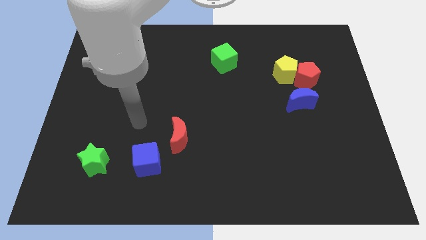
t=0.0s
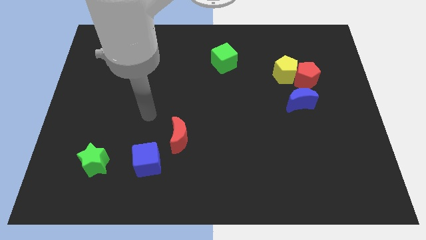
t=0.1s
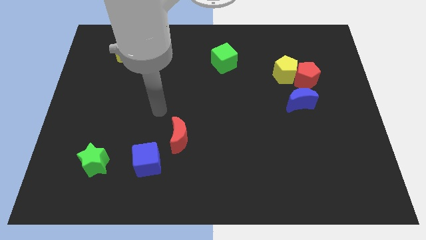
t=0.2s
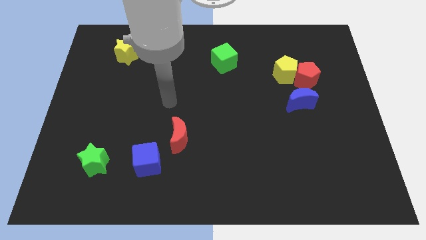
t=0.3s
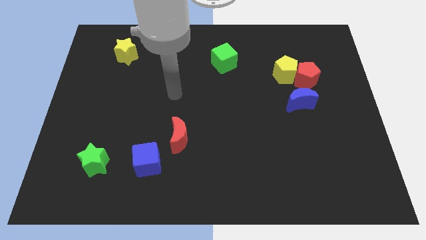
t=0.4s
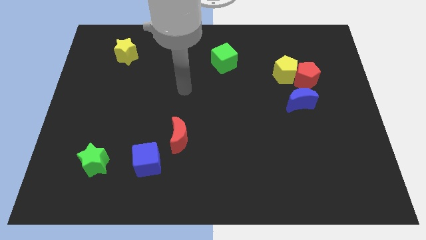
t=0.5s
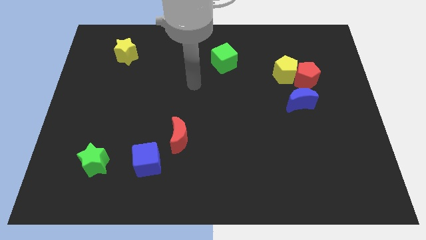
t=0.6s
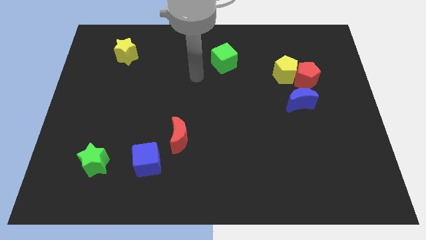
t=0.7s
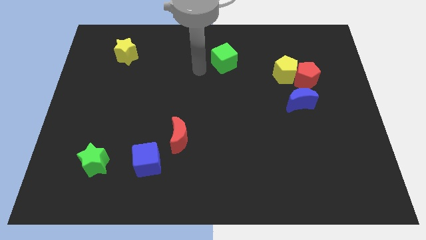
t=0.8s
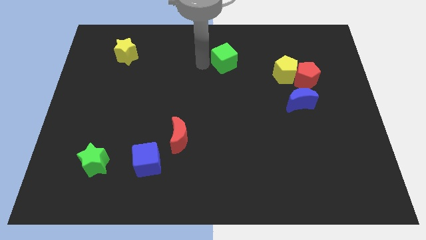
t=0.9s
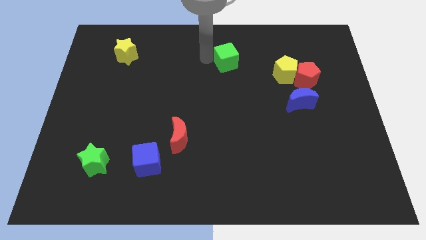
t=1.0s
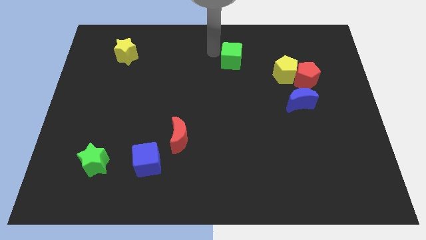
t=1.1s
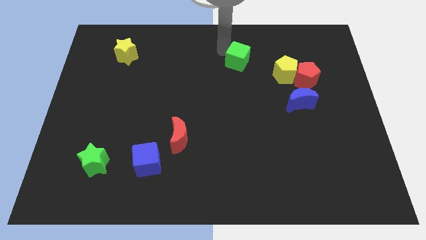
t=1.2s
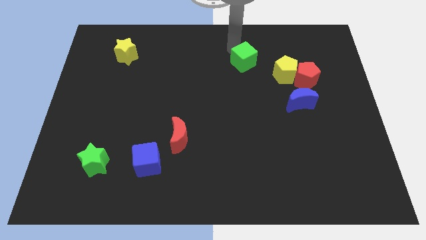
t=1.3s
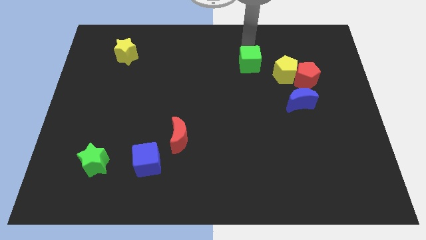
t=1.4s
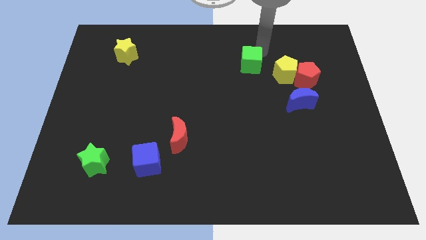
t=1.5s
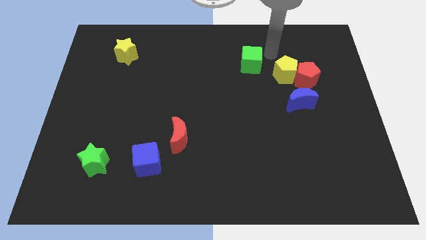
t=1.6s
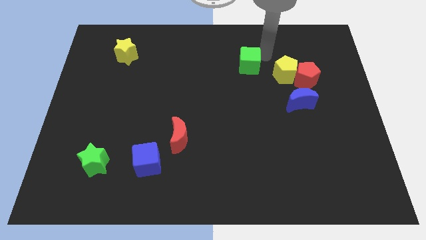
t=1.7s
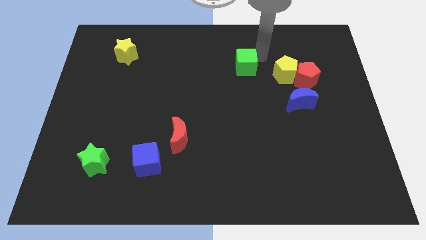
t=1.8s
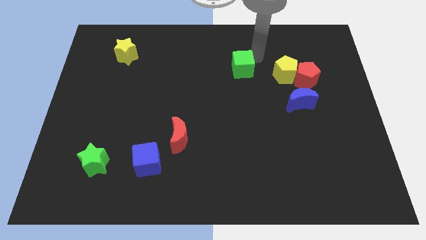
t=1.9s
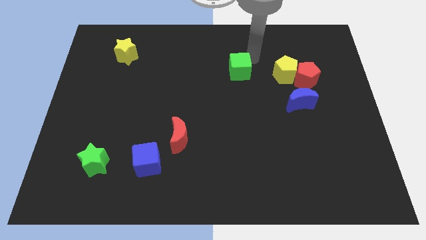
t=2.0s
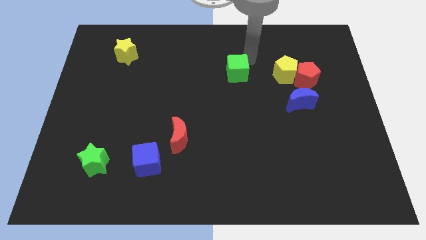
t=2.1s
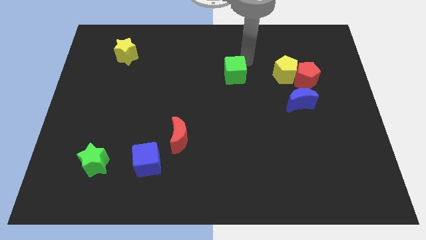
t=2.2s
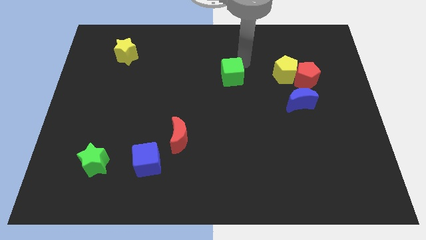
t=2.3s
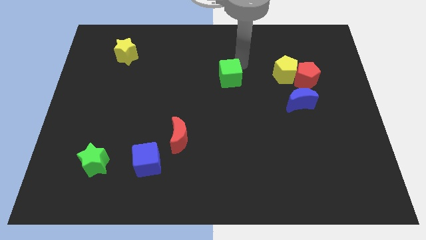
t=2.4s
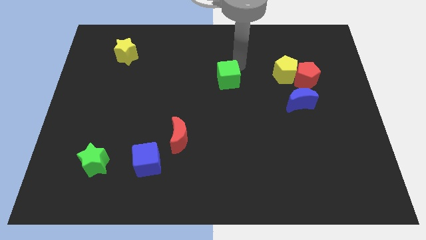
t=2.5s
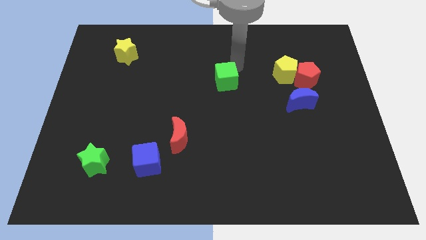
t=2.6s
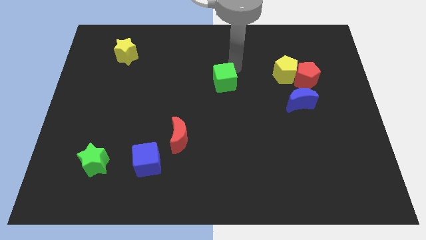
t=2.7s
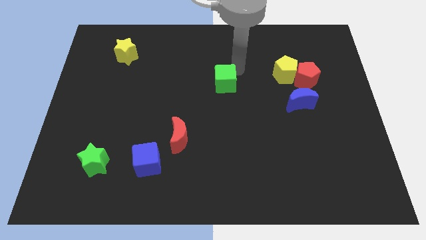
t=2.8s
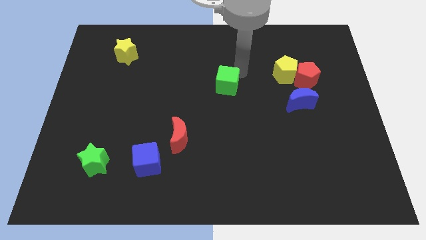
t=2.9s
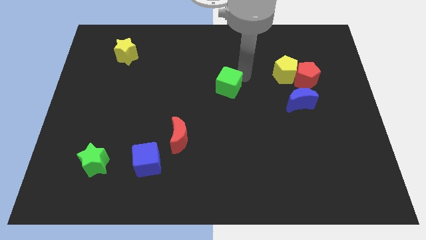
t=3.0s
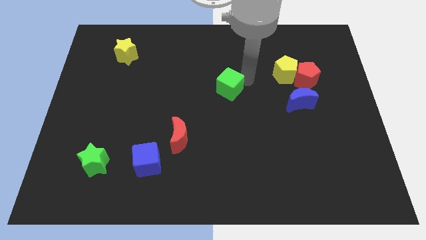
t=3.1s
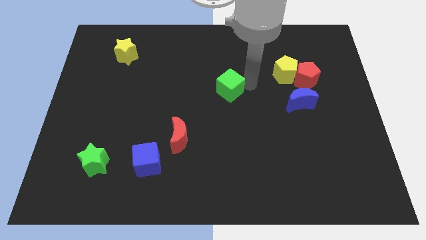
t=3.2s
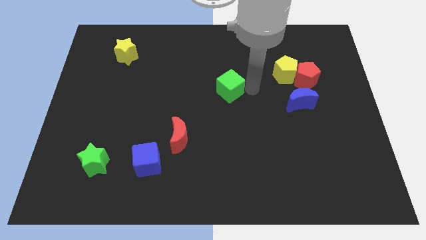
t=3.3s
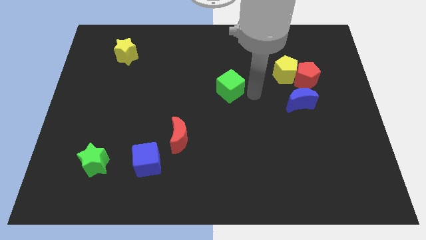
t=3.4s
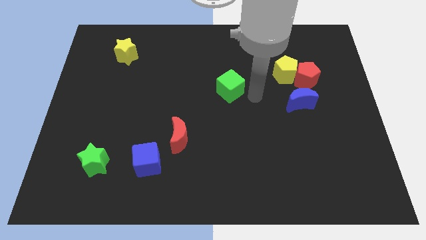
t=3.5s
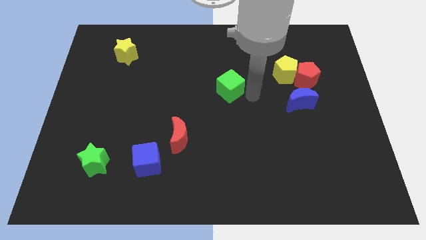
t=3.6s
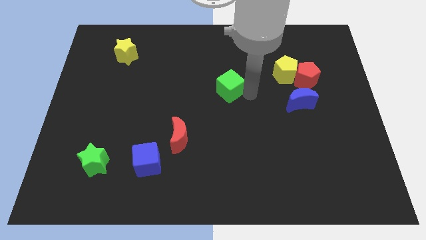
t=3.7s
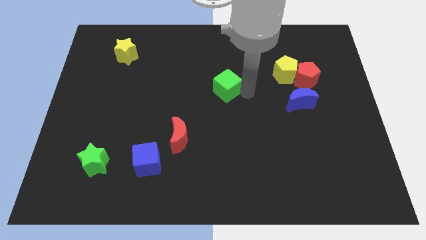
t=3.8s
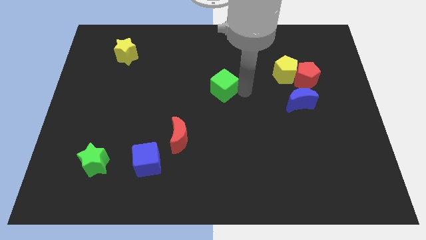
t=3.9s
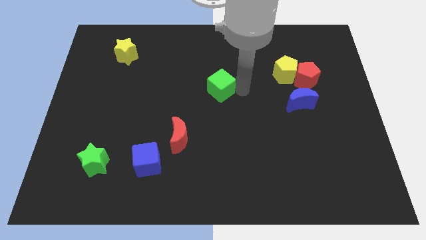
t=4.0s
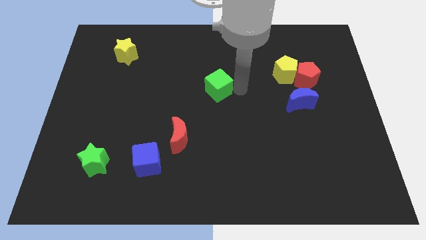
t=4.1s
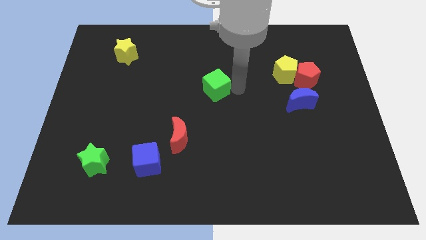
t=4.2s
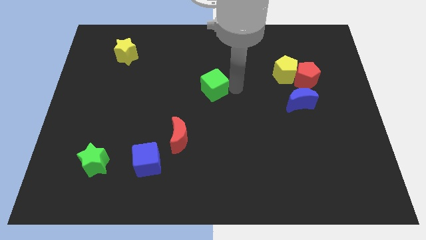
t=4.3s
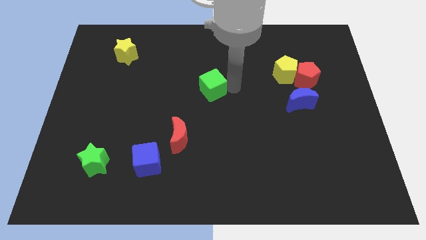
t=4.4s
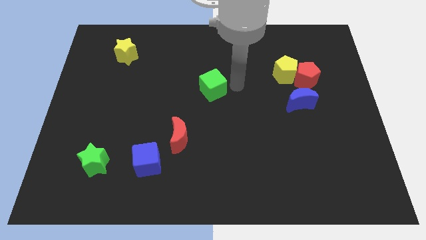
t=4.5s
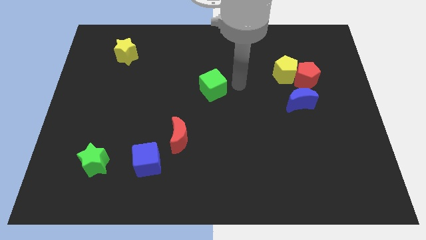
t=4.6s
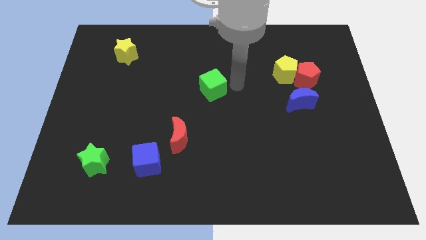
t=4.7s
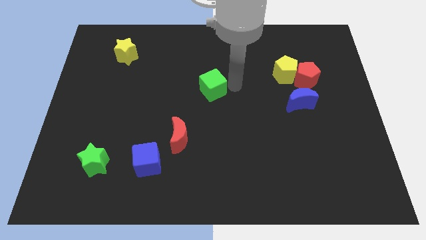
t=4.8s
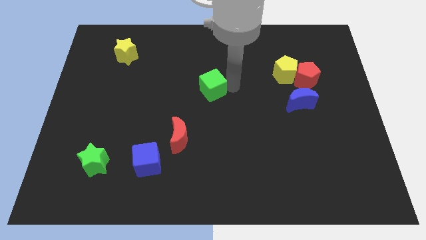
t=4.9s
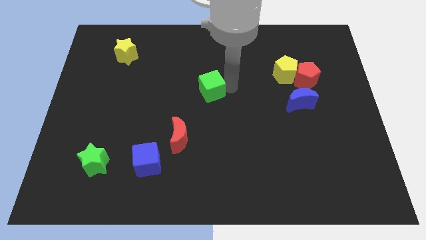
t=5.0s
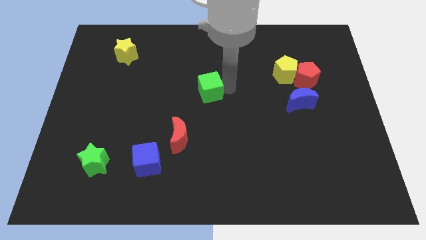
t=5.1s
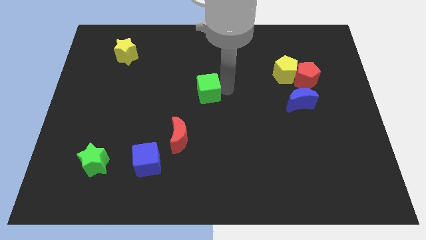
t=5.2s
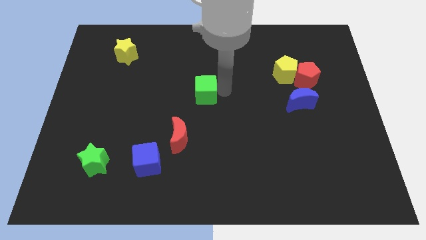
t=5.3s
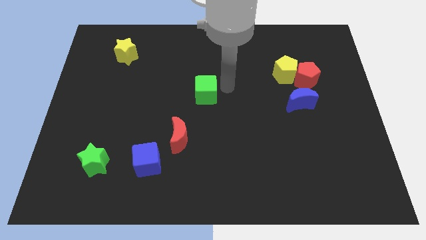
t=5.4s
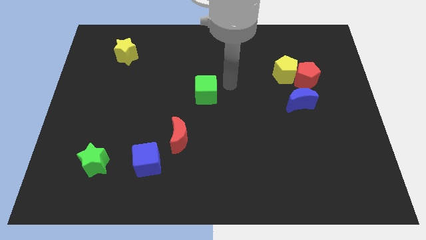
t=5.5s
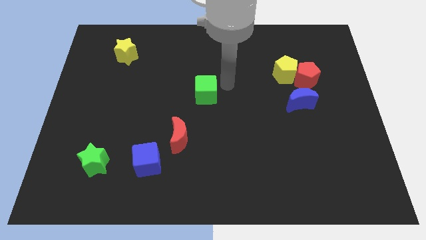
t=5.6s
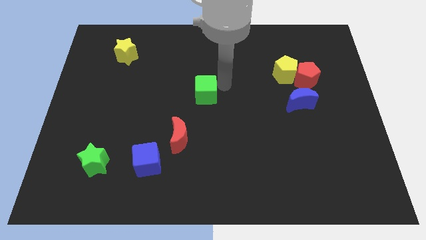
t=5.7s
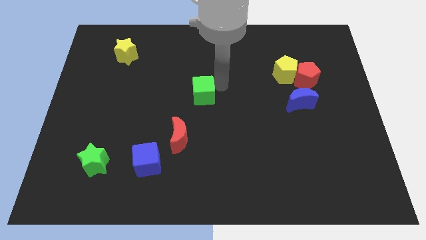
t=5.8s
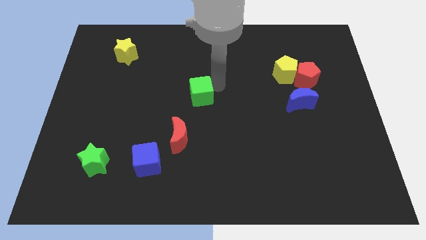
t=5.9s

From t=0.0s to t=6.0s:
move the green cube to the top of the red moon
